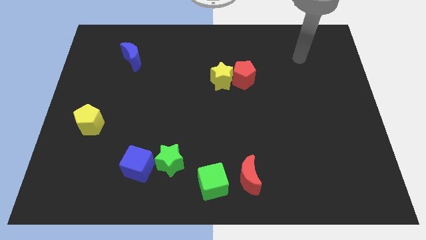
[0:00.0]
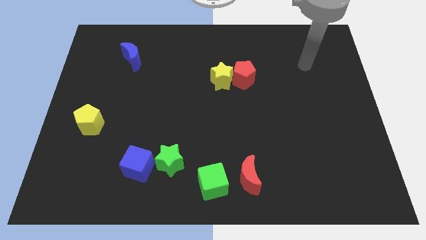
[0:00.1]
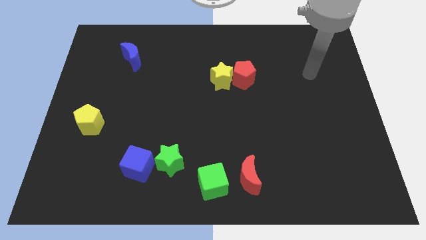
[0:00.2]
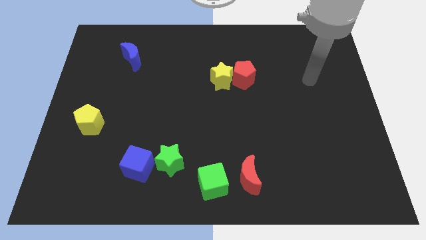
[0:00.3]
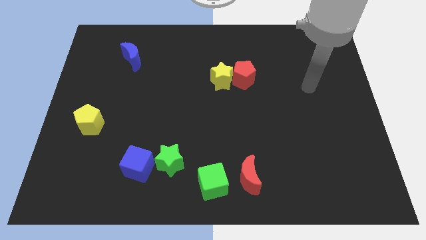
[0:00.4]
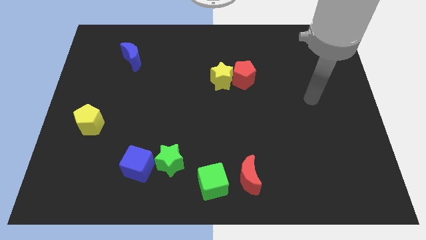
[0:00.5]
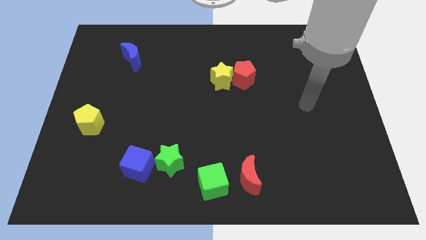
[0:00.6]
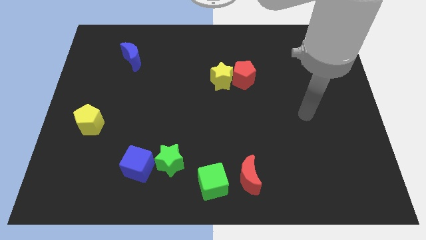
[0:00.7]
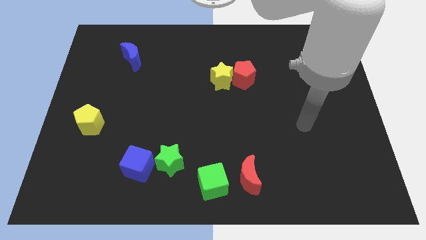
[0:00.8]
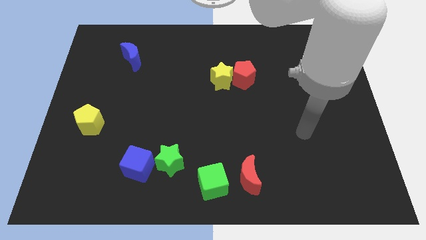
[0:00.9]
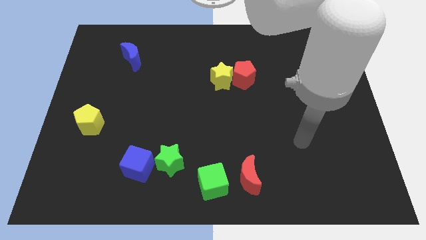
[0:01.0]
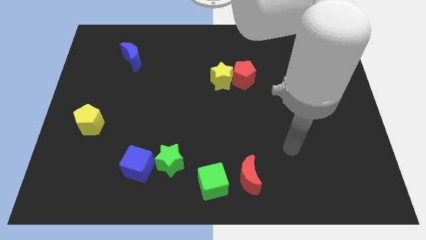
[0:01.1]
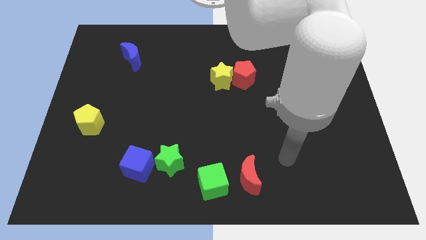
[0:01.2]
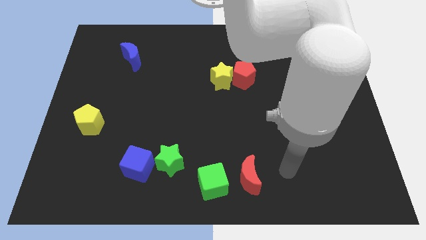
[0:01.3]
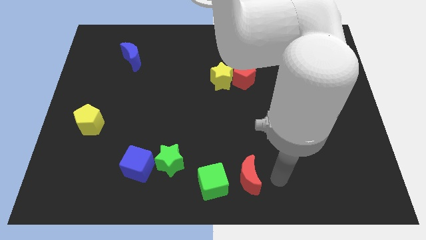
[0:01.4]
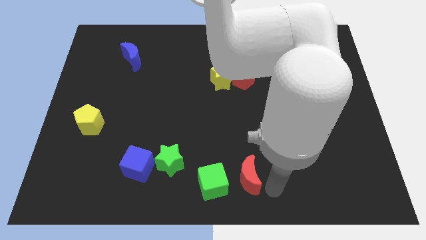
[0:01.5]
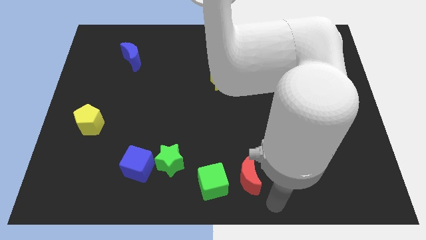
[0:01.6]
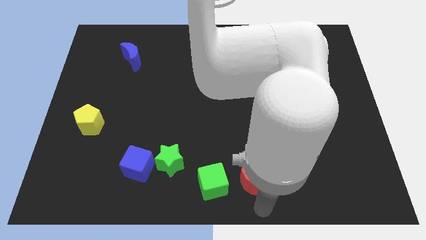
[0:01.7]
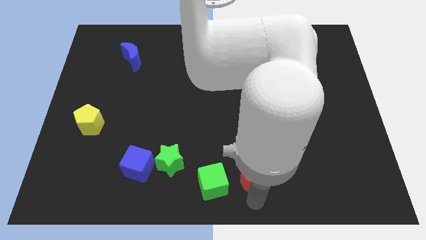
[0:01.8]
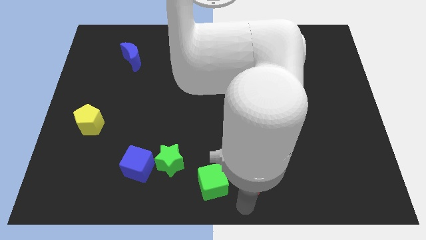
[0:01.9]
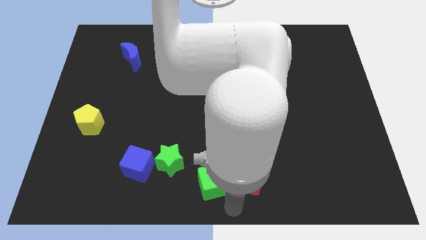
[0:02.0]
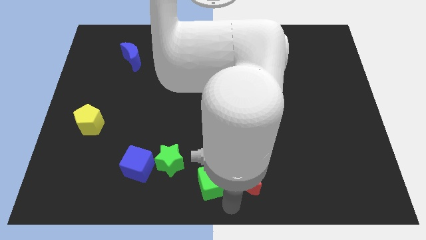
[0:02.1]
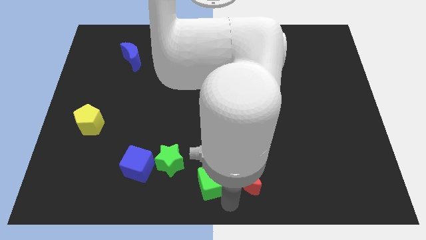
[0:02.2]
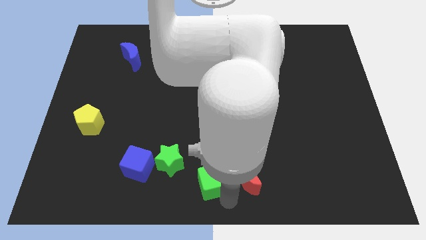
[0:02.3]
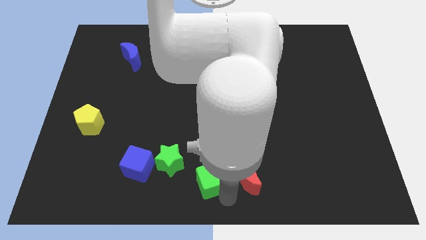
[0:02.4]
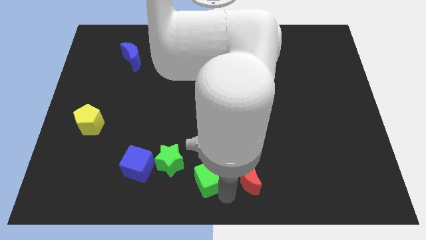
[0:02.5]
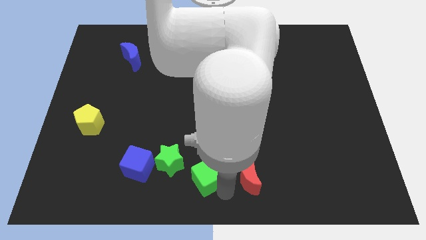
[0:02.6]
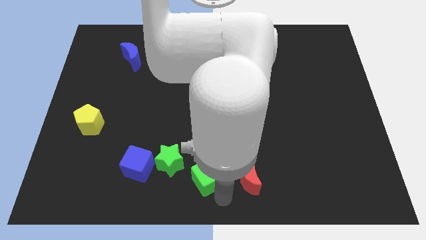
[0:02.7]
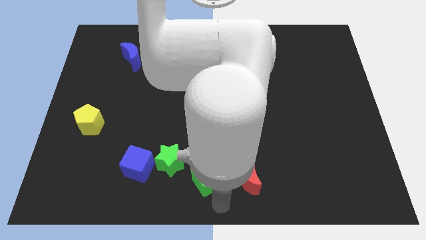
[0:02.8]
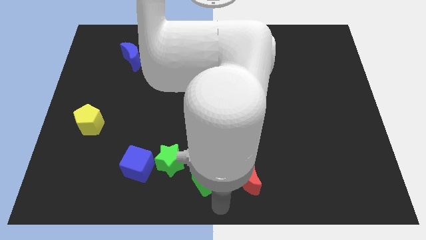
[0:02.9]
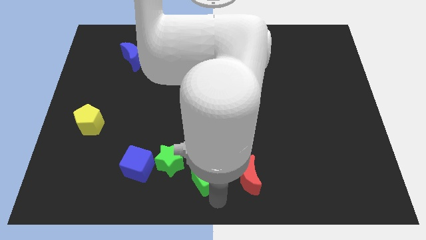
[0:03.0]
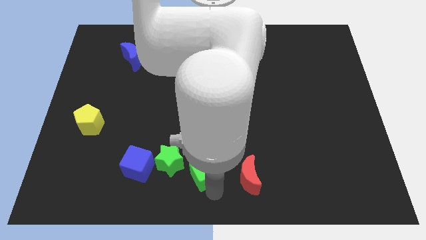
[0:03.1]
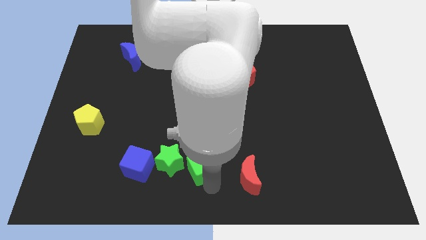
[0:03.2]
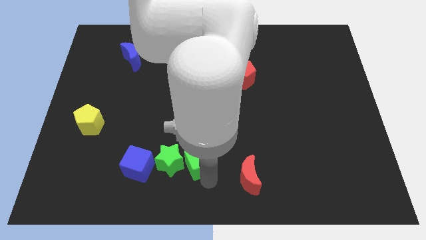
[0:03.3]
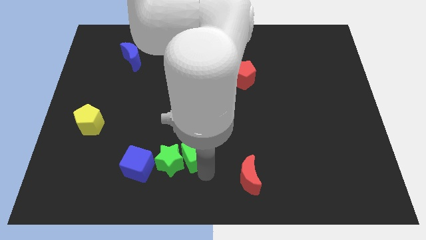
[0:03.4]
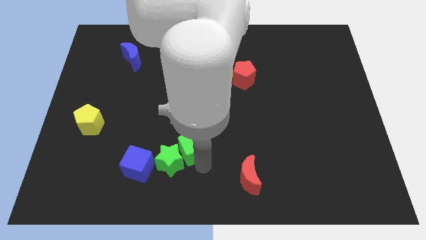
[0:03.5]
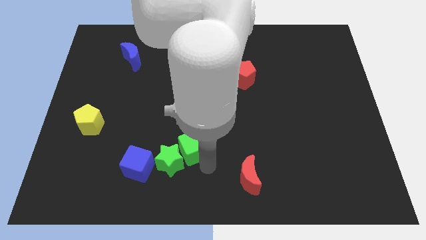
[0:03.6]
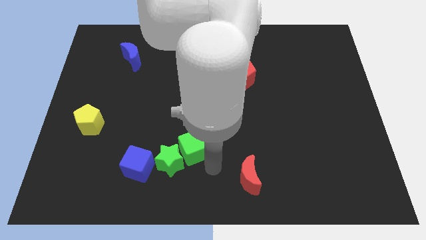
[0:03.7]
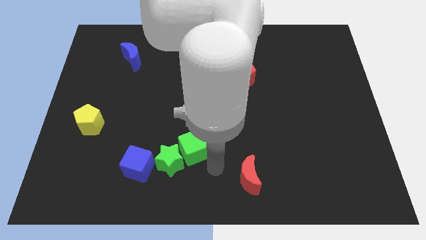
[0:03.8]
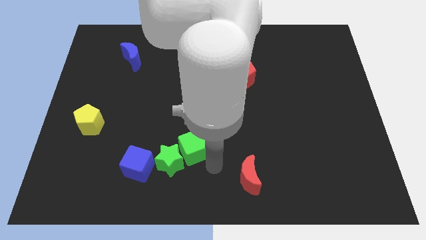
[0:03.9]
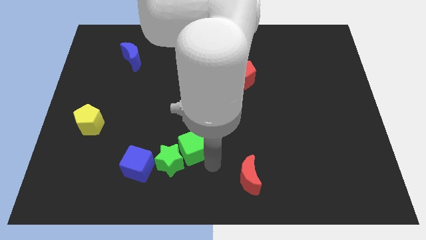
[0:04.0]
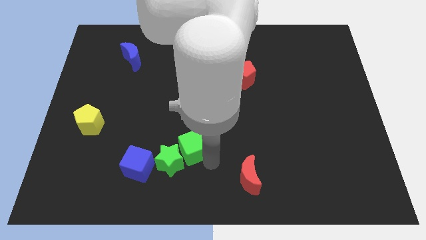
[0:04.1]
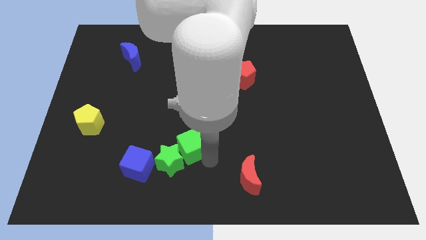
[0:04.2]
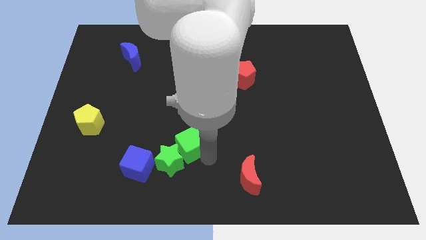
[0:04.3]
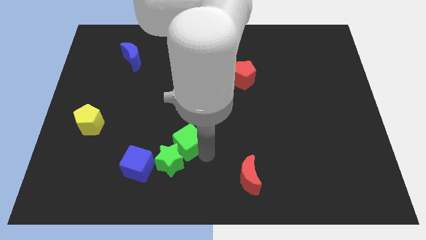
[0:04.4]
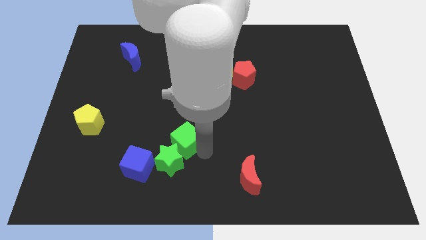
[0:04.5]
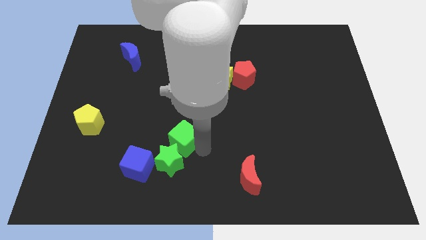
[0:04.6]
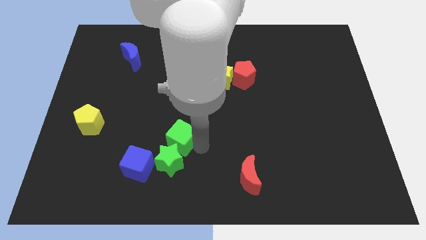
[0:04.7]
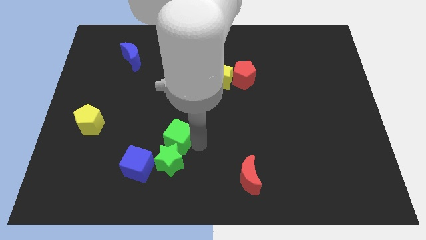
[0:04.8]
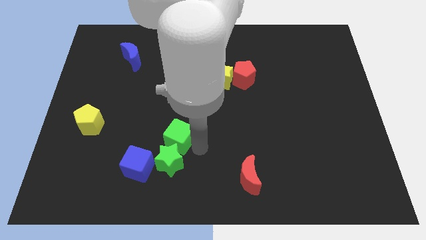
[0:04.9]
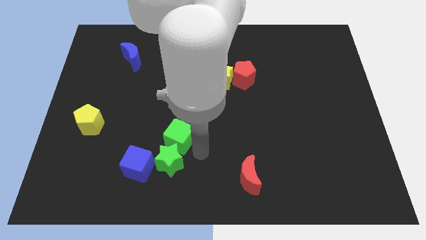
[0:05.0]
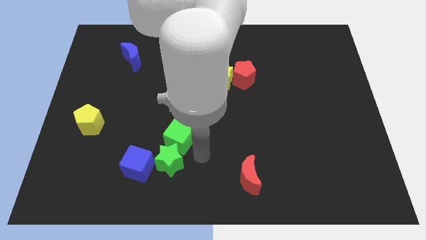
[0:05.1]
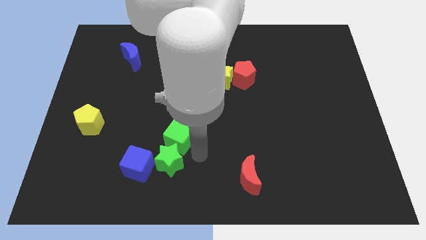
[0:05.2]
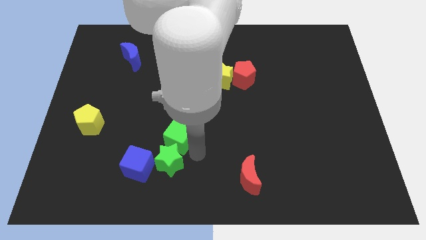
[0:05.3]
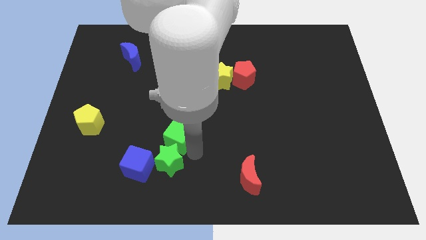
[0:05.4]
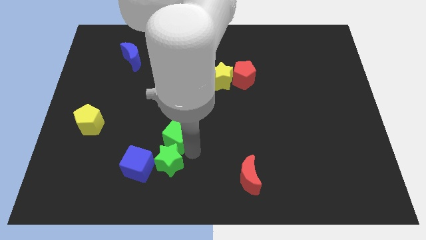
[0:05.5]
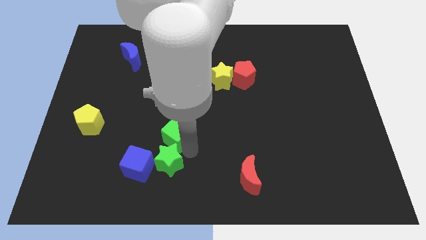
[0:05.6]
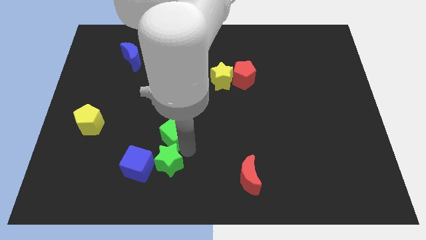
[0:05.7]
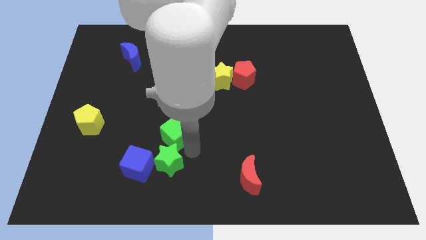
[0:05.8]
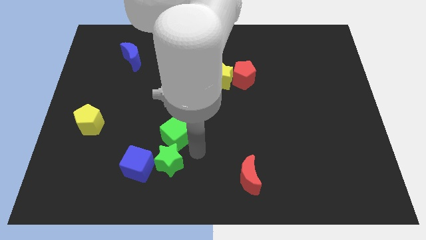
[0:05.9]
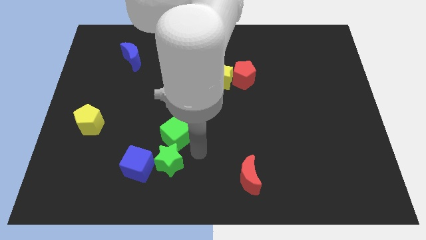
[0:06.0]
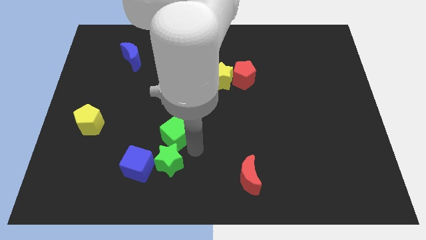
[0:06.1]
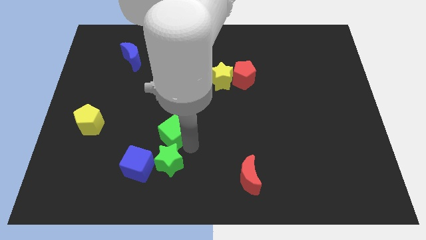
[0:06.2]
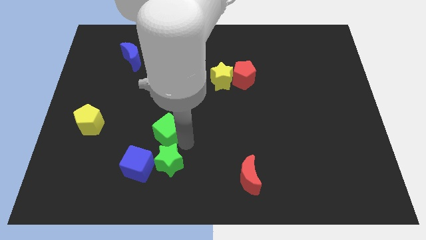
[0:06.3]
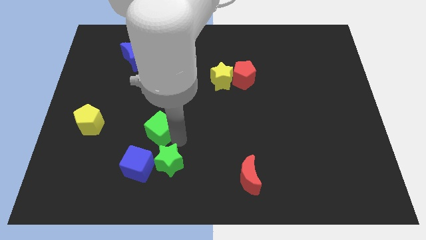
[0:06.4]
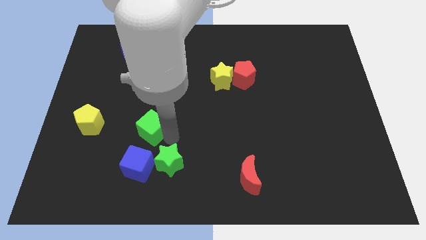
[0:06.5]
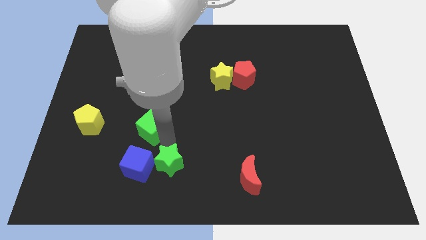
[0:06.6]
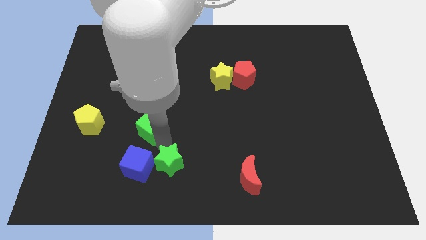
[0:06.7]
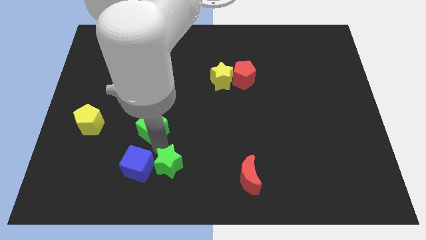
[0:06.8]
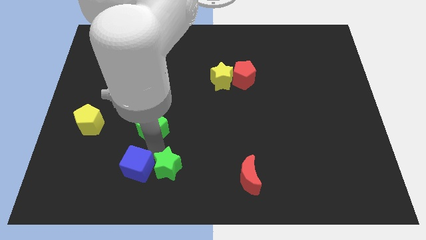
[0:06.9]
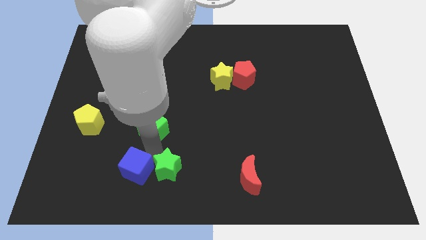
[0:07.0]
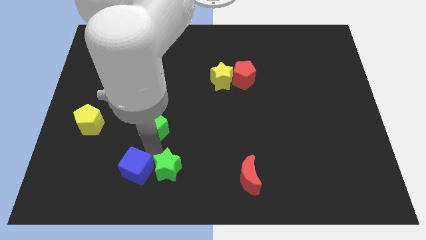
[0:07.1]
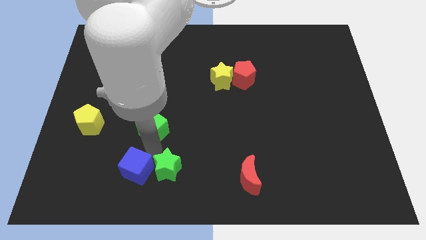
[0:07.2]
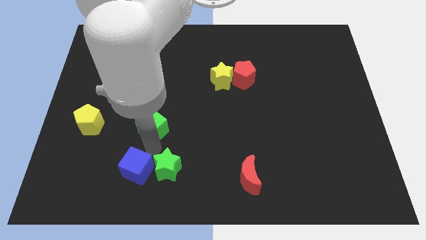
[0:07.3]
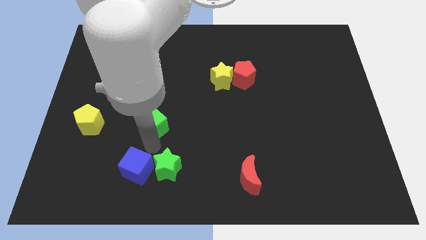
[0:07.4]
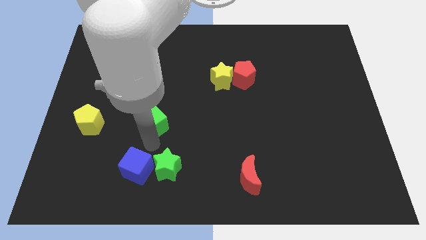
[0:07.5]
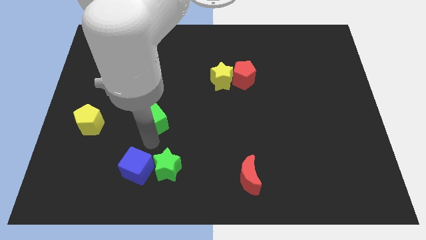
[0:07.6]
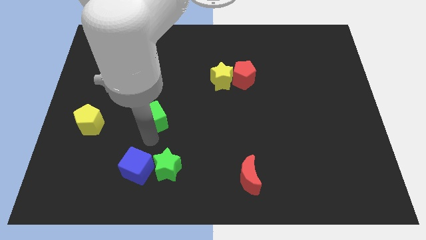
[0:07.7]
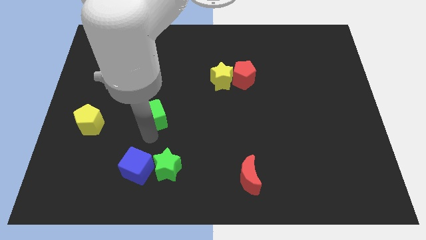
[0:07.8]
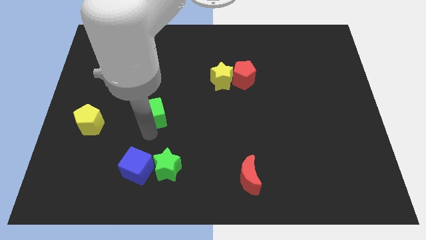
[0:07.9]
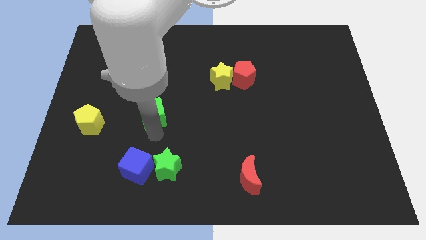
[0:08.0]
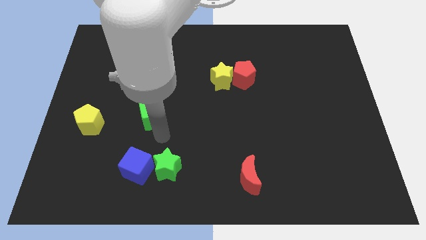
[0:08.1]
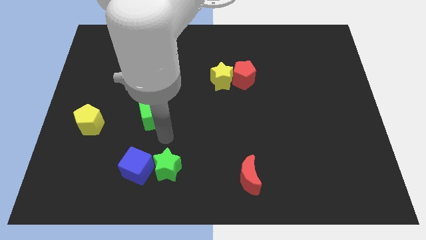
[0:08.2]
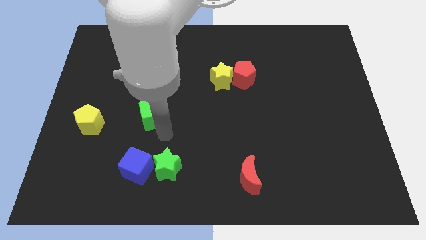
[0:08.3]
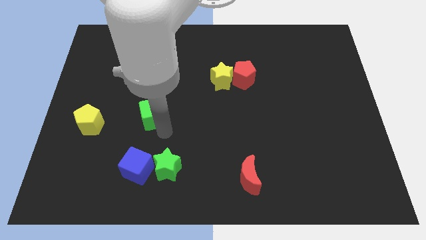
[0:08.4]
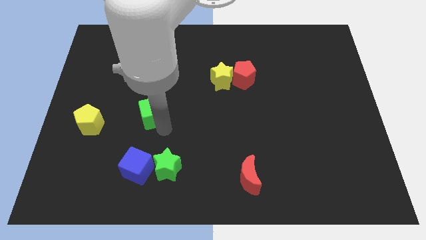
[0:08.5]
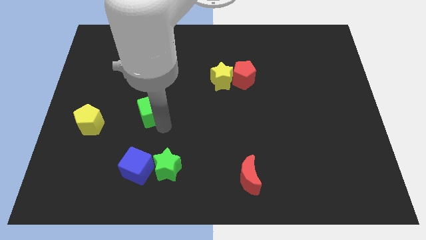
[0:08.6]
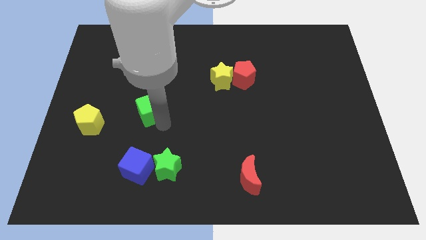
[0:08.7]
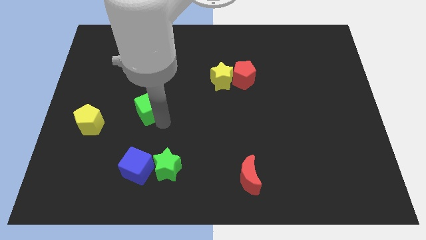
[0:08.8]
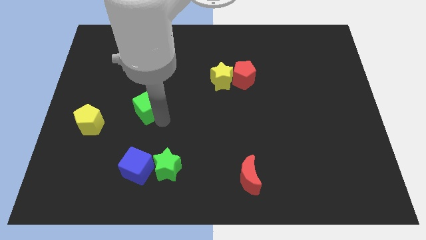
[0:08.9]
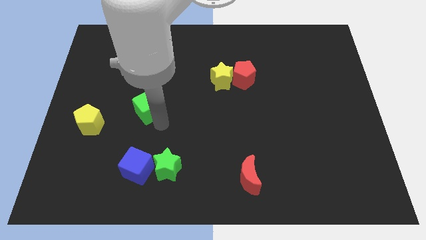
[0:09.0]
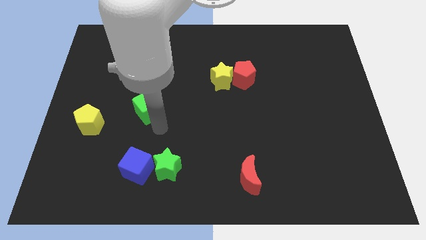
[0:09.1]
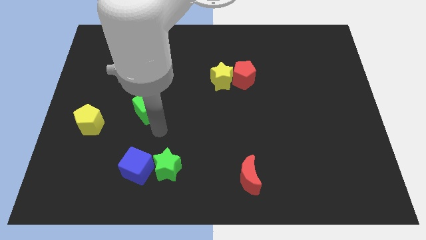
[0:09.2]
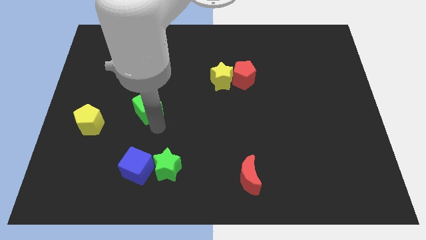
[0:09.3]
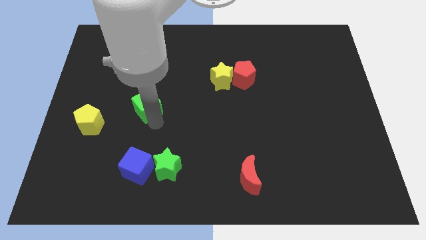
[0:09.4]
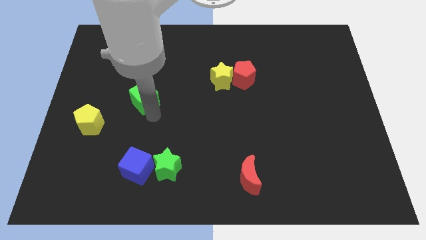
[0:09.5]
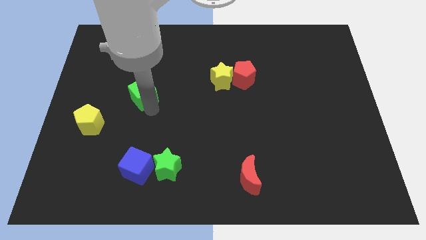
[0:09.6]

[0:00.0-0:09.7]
push the green cube below the blue moon
